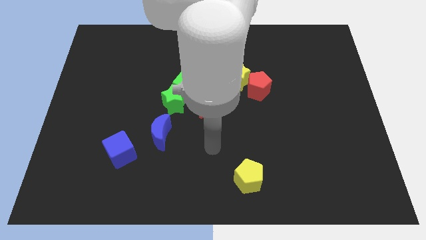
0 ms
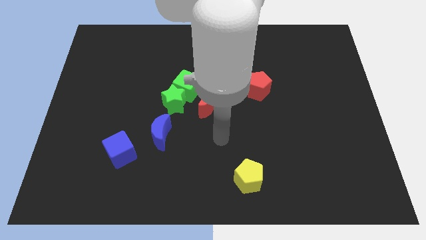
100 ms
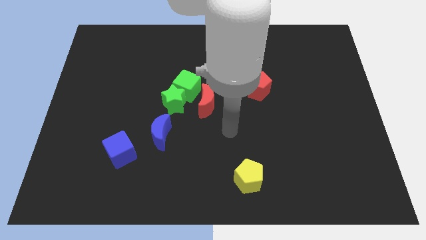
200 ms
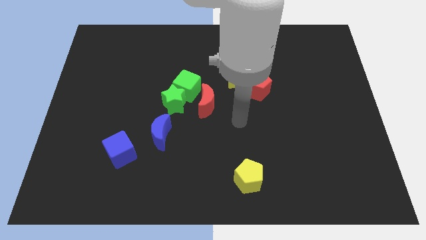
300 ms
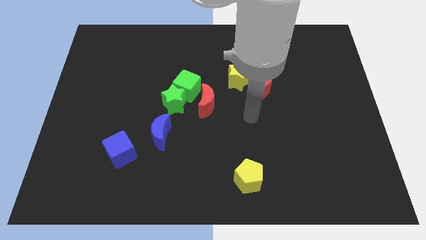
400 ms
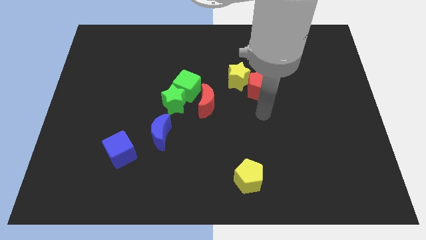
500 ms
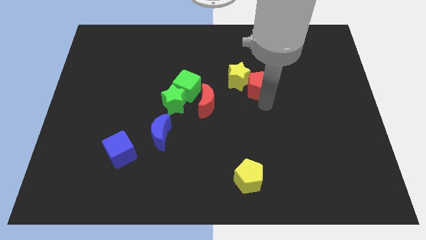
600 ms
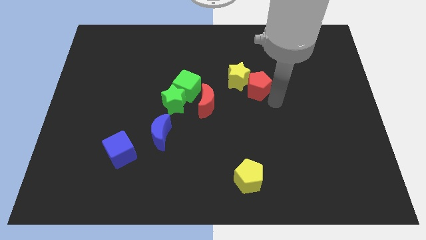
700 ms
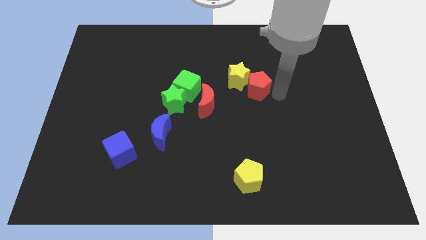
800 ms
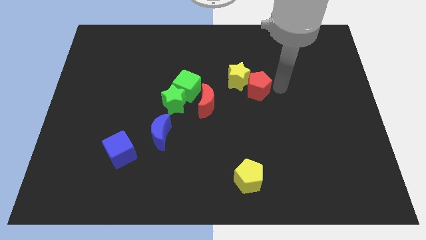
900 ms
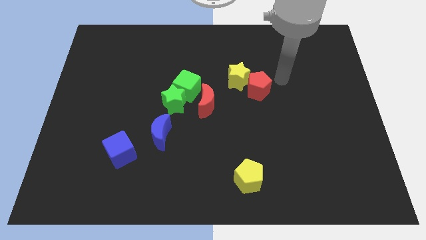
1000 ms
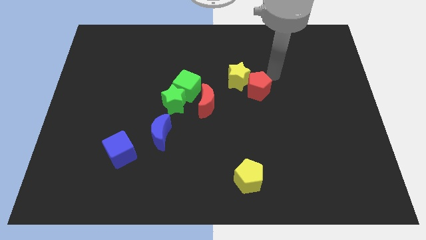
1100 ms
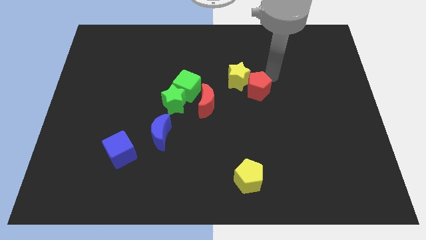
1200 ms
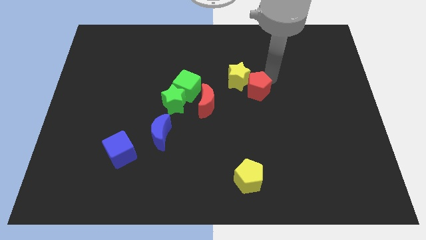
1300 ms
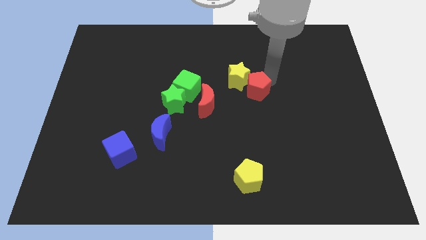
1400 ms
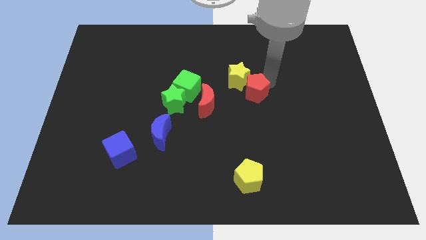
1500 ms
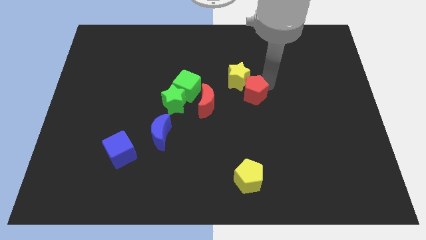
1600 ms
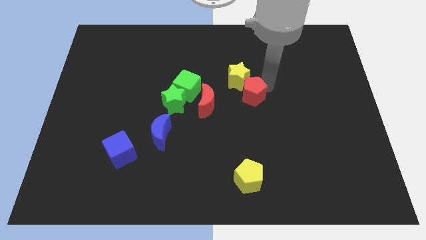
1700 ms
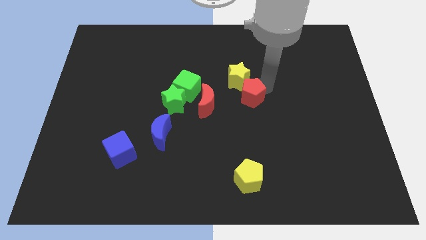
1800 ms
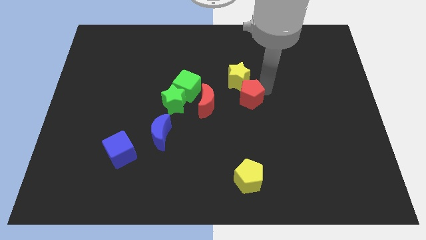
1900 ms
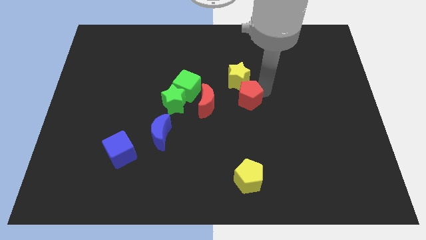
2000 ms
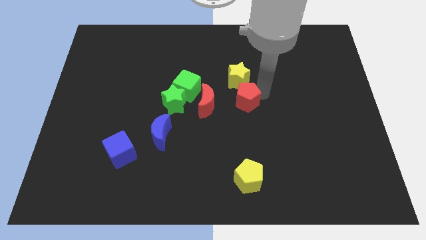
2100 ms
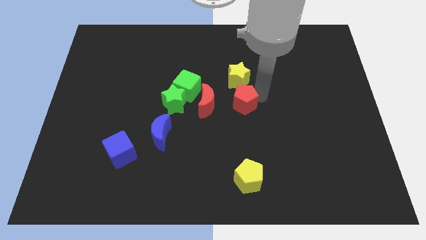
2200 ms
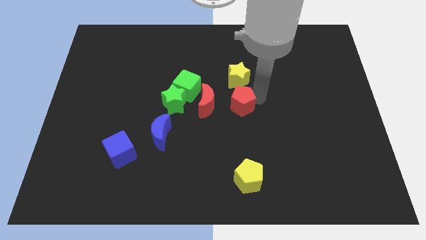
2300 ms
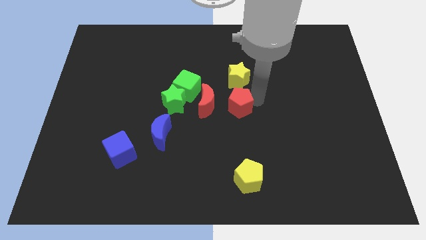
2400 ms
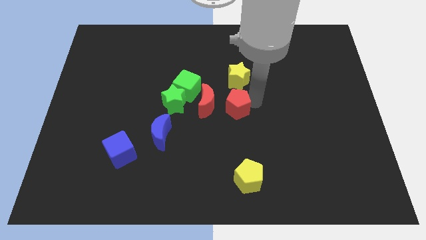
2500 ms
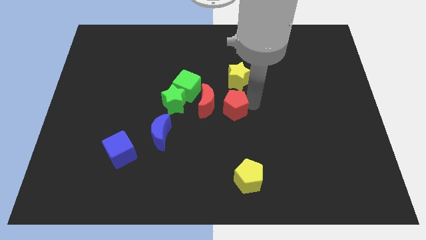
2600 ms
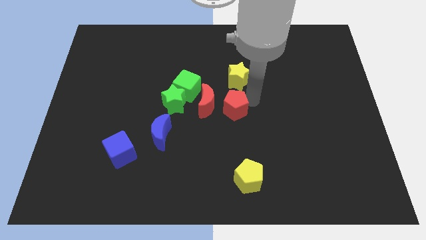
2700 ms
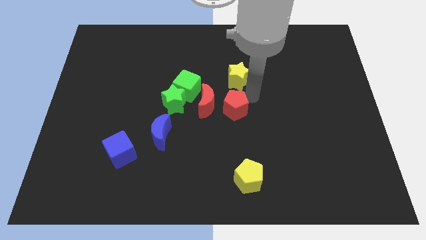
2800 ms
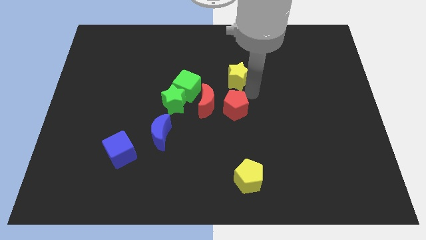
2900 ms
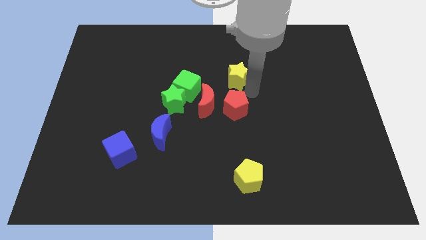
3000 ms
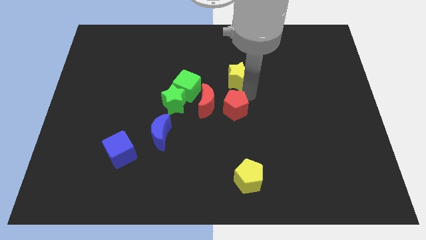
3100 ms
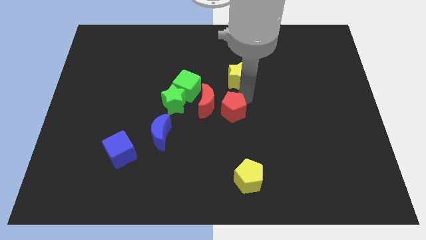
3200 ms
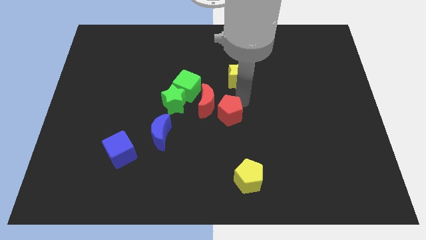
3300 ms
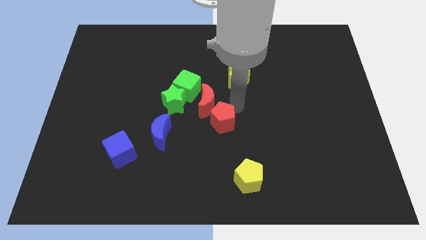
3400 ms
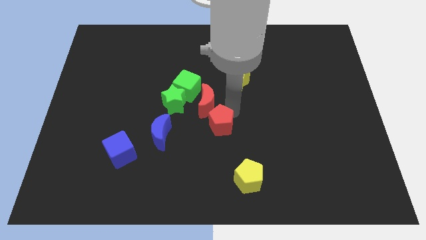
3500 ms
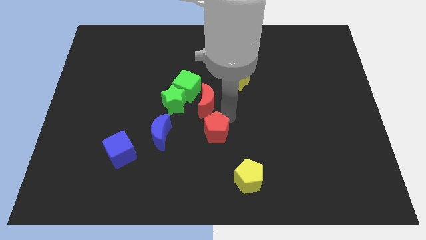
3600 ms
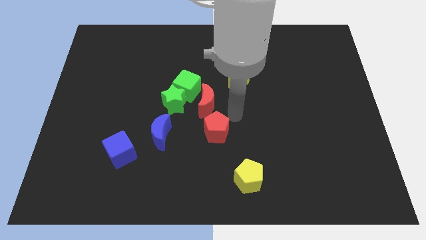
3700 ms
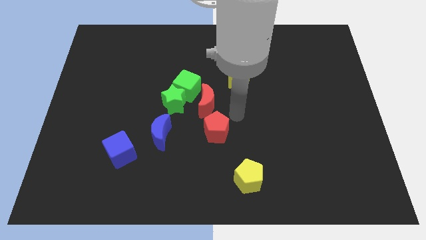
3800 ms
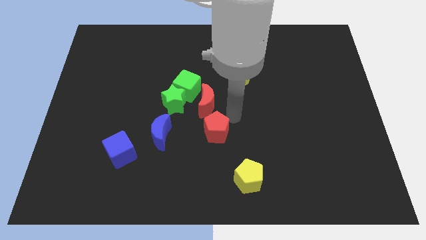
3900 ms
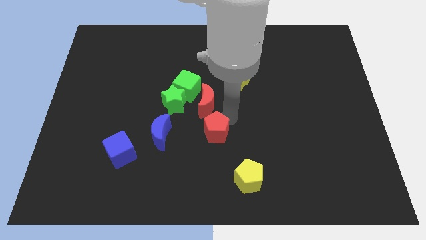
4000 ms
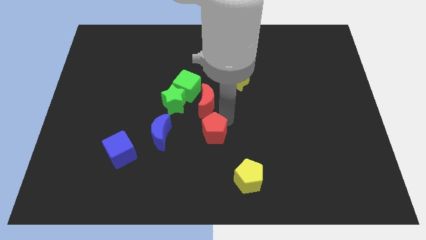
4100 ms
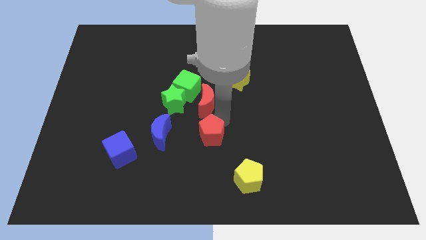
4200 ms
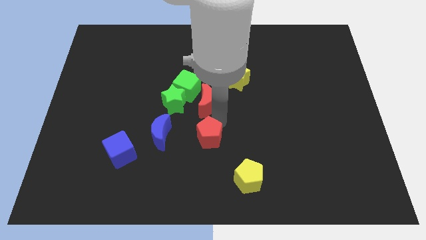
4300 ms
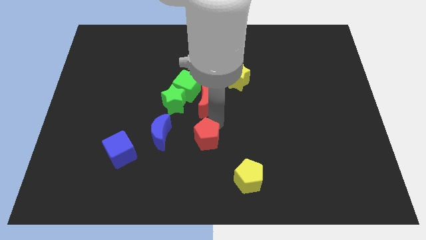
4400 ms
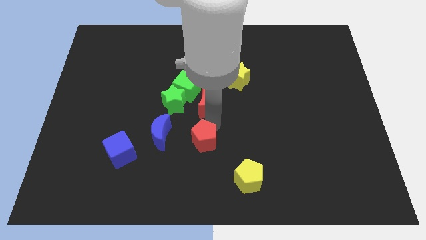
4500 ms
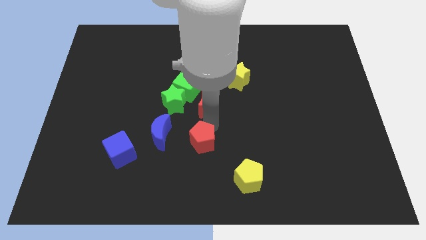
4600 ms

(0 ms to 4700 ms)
slide the red pentagon down and left diagonally

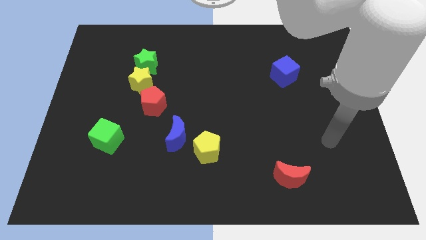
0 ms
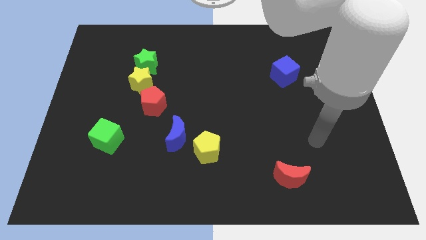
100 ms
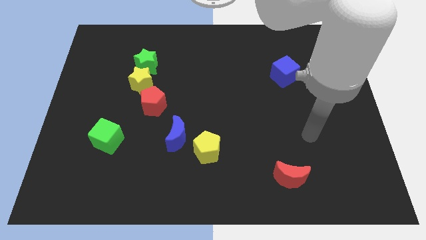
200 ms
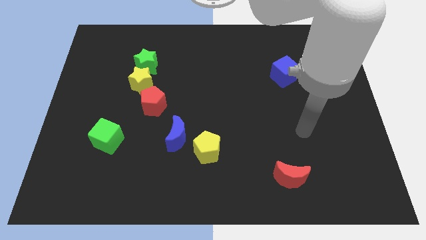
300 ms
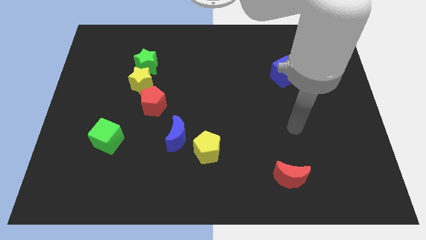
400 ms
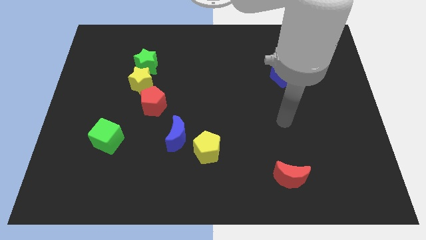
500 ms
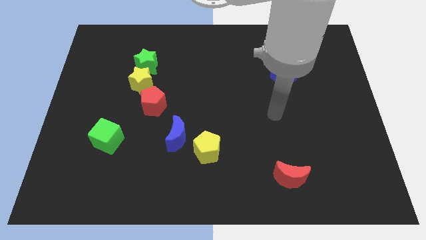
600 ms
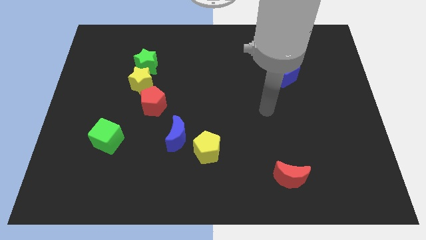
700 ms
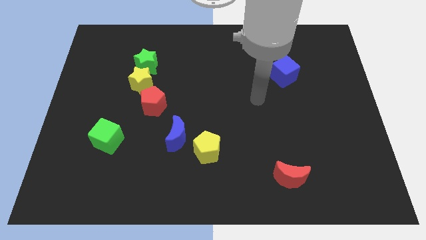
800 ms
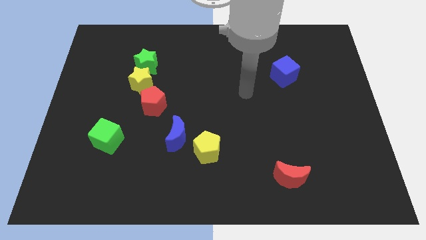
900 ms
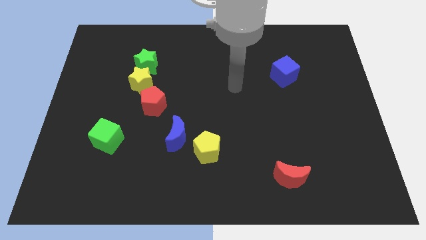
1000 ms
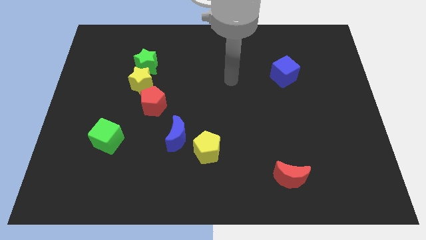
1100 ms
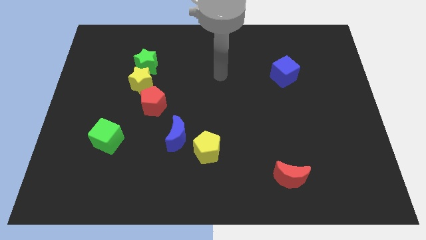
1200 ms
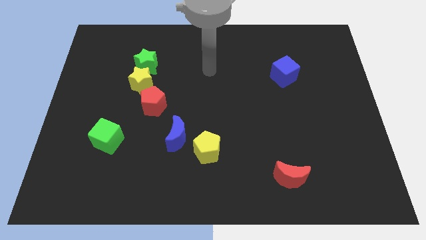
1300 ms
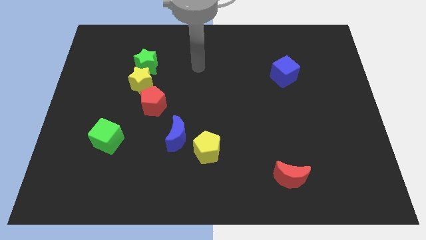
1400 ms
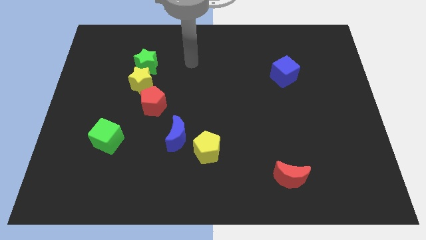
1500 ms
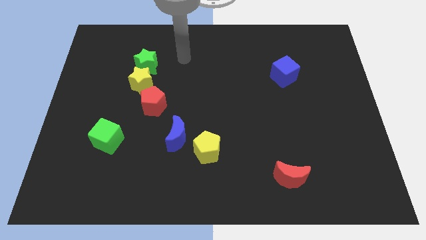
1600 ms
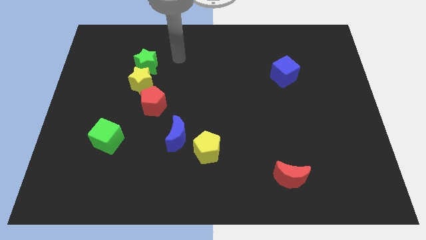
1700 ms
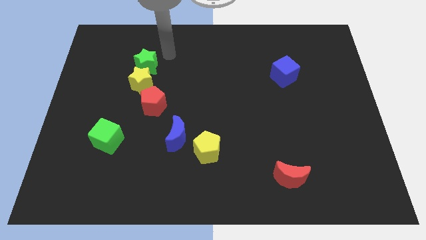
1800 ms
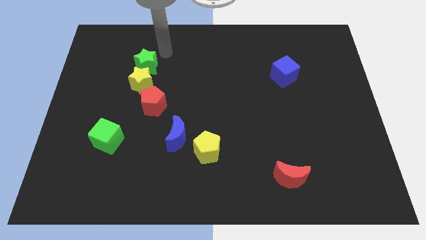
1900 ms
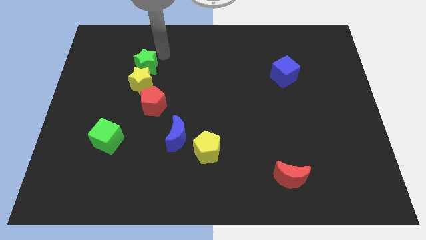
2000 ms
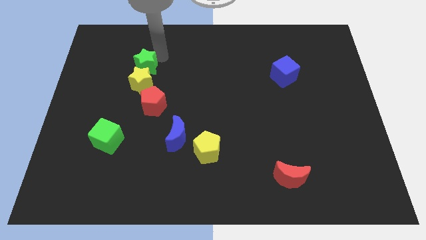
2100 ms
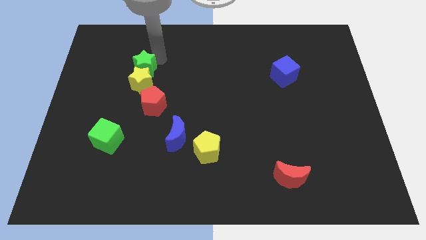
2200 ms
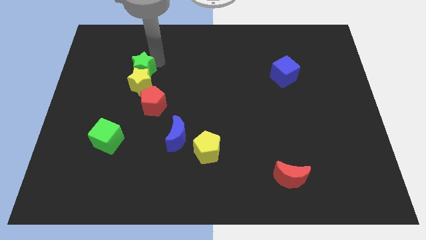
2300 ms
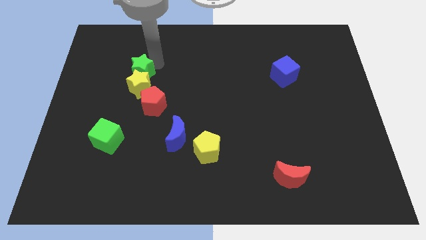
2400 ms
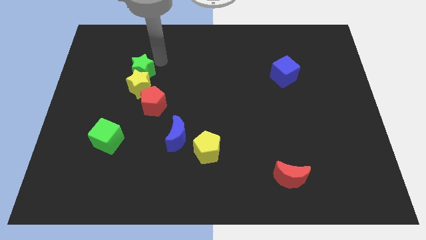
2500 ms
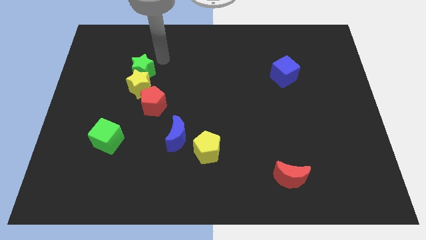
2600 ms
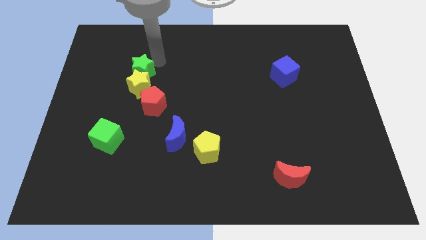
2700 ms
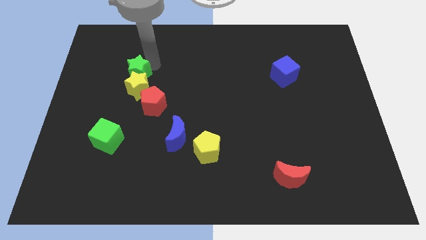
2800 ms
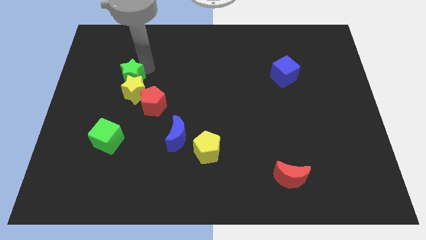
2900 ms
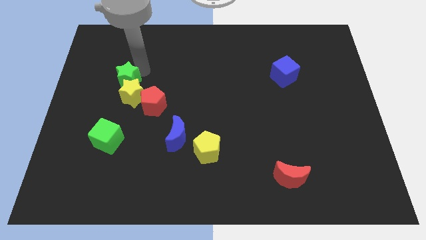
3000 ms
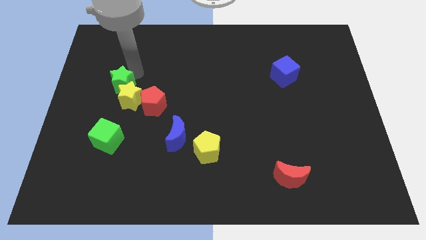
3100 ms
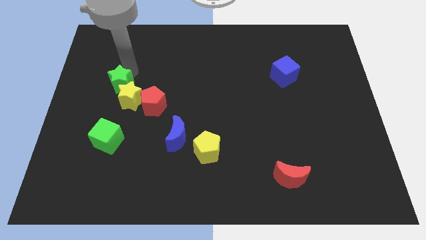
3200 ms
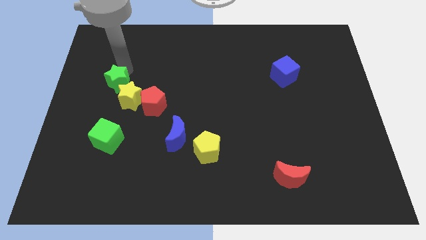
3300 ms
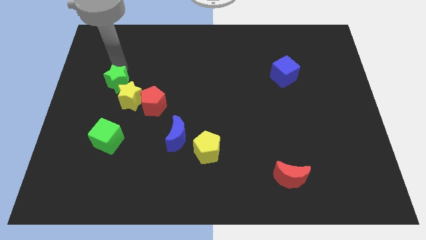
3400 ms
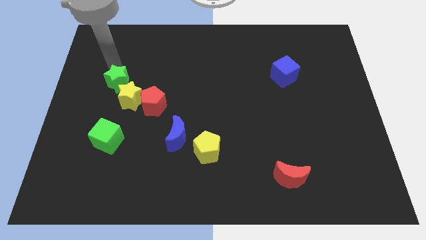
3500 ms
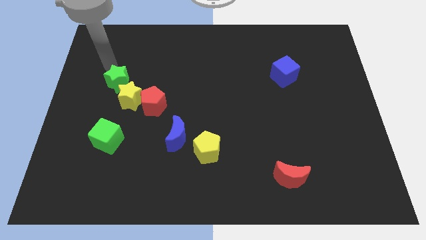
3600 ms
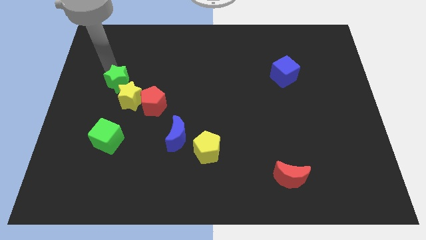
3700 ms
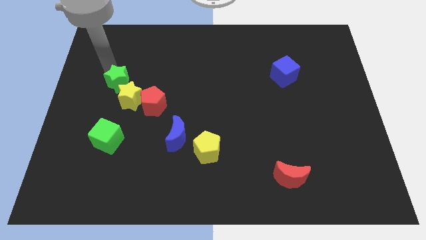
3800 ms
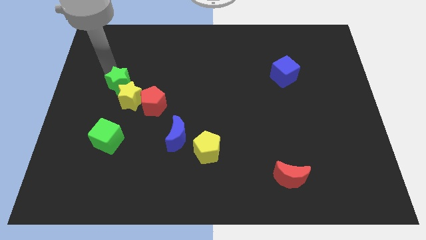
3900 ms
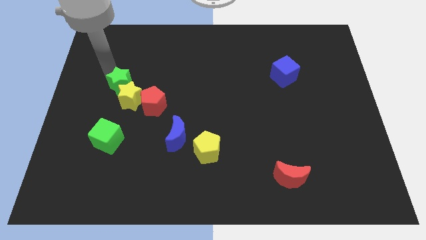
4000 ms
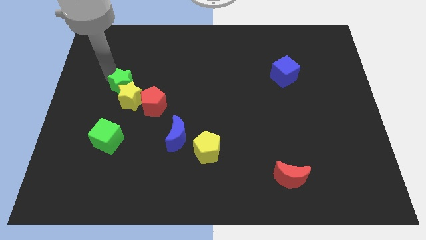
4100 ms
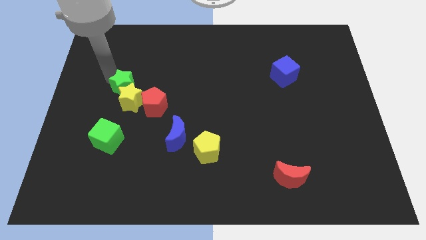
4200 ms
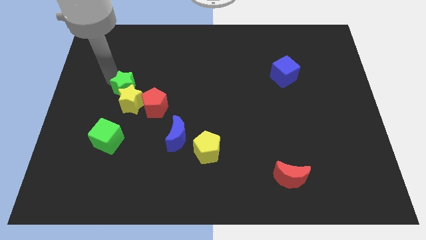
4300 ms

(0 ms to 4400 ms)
slide the green star downwards somewhat
